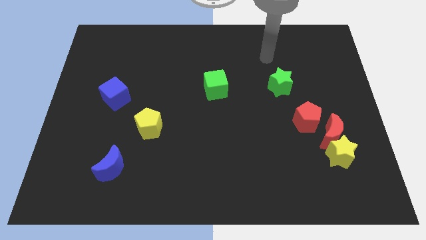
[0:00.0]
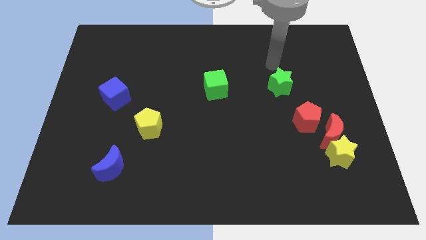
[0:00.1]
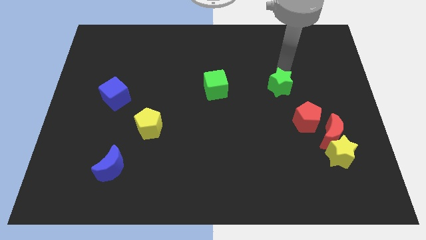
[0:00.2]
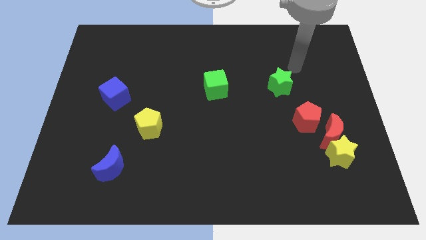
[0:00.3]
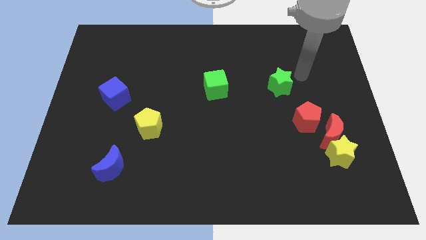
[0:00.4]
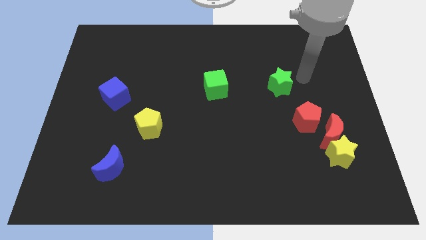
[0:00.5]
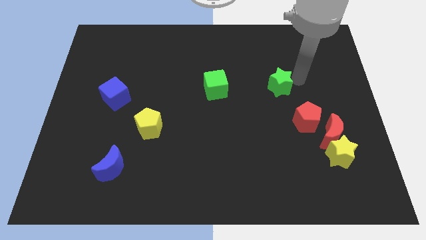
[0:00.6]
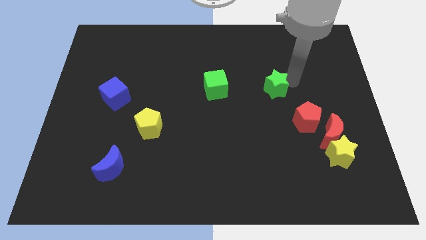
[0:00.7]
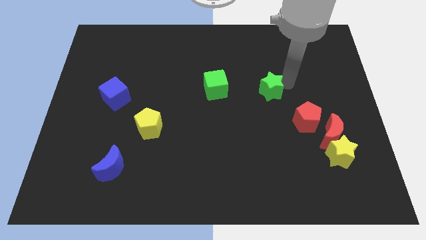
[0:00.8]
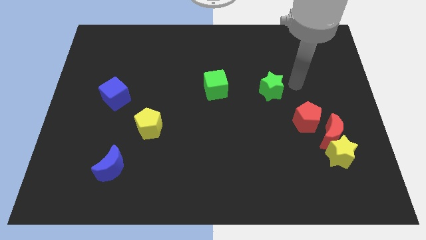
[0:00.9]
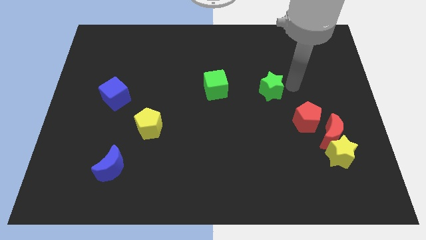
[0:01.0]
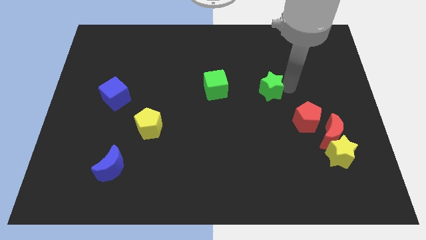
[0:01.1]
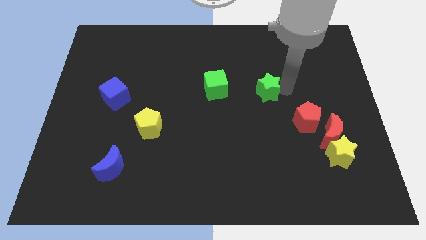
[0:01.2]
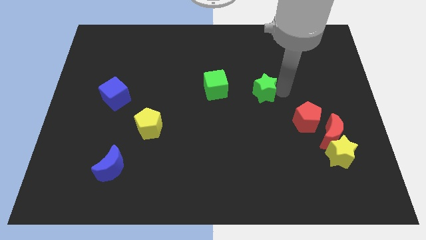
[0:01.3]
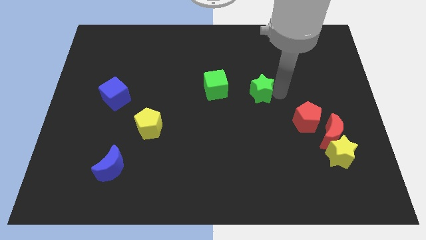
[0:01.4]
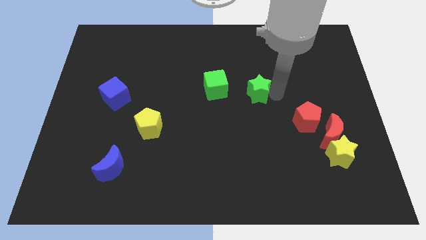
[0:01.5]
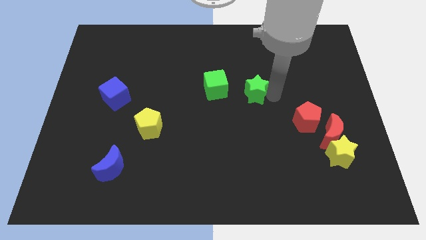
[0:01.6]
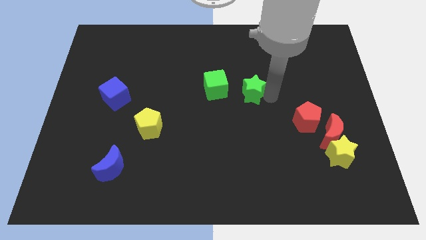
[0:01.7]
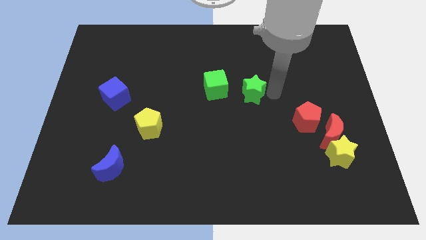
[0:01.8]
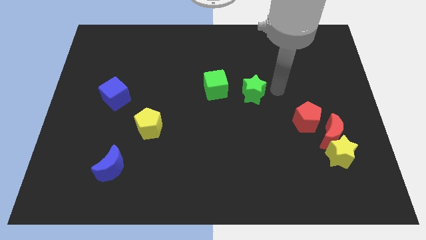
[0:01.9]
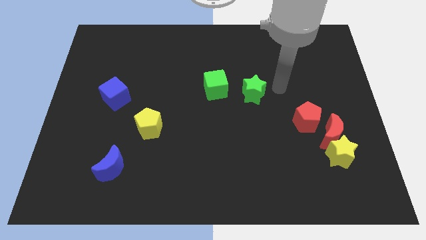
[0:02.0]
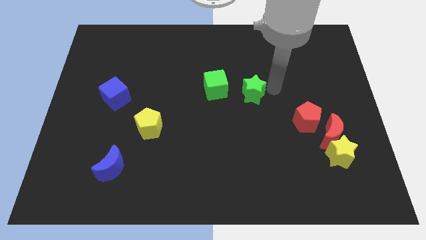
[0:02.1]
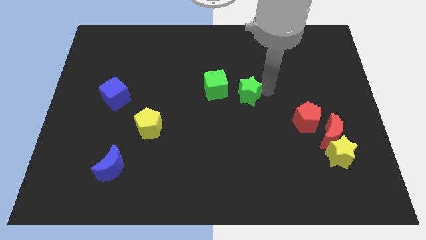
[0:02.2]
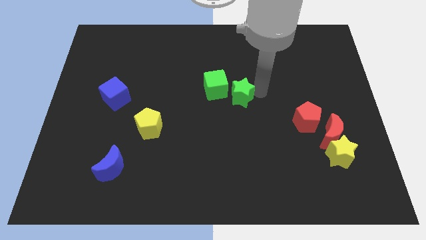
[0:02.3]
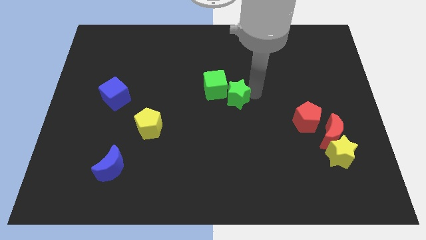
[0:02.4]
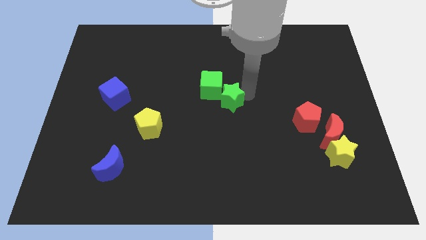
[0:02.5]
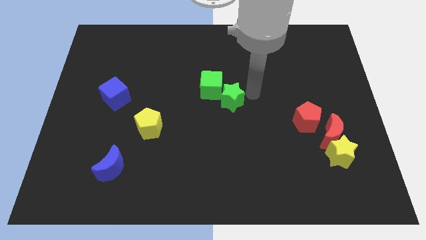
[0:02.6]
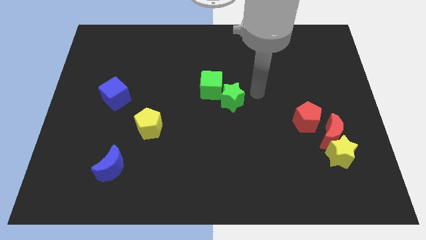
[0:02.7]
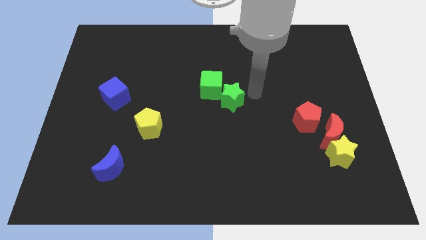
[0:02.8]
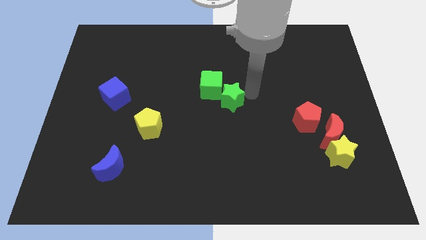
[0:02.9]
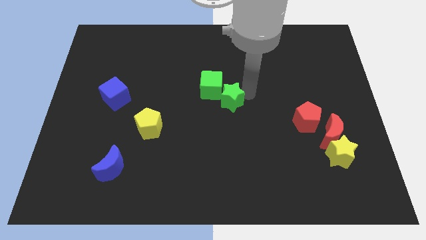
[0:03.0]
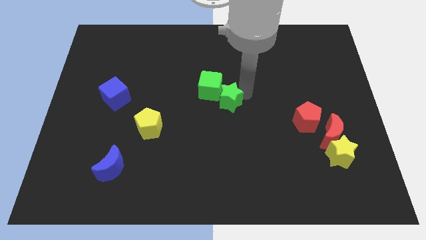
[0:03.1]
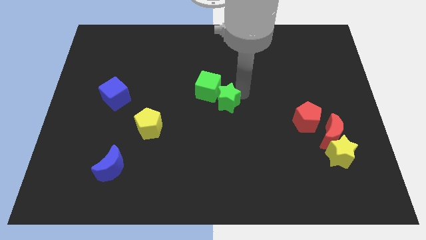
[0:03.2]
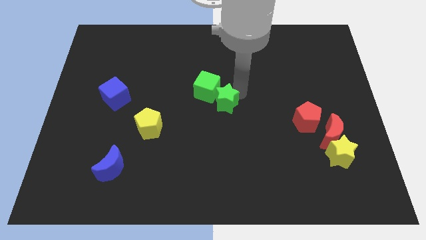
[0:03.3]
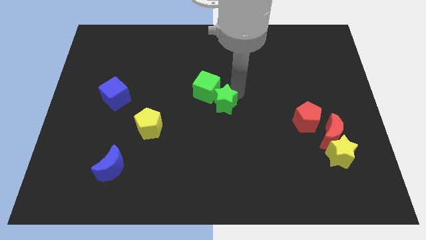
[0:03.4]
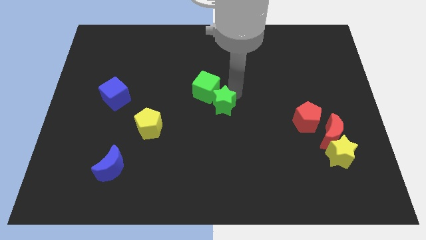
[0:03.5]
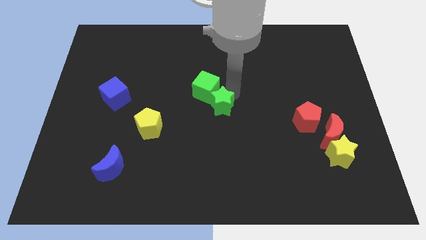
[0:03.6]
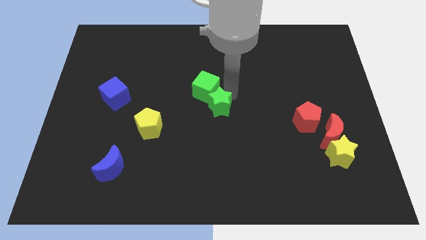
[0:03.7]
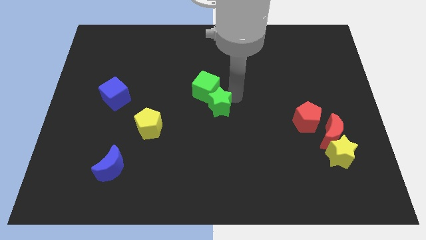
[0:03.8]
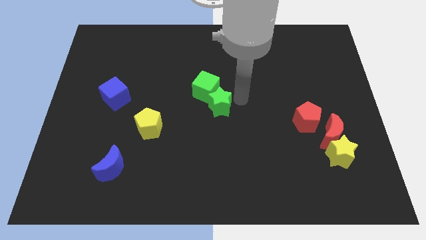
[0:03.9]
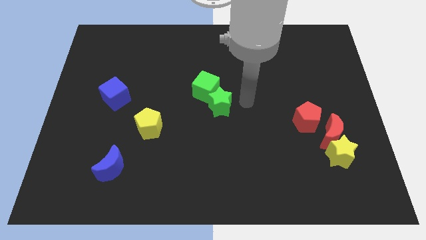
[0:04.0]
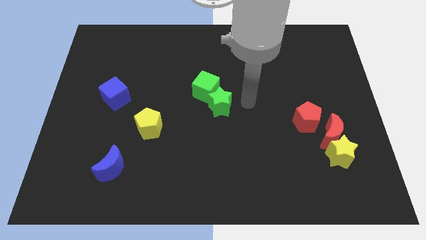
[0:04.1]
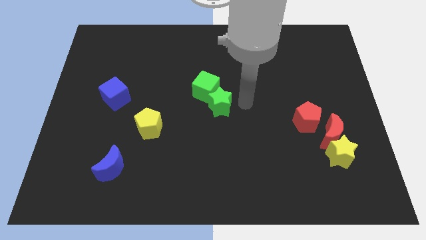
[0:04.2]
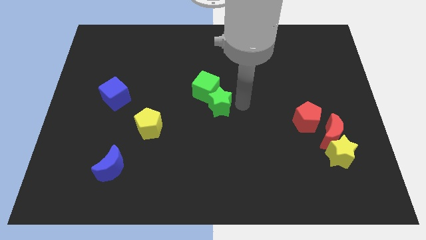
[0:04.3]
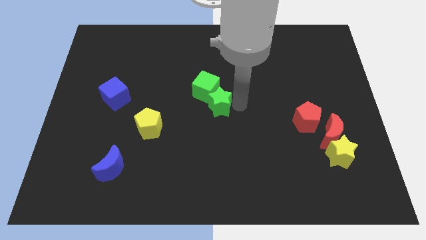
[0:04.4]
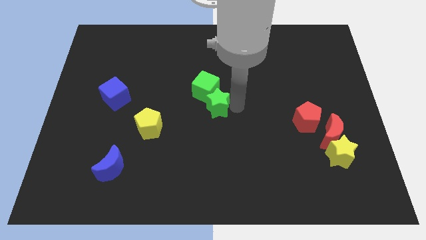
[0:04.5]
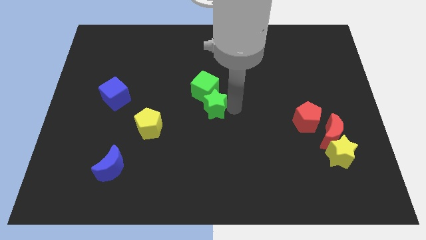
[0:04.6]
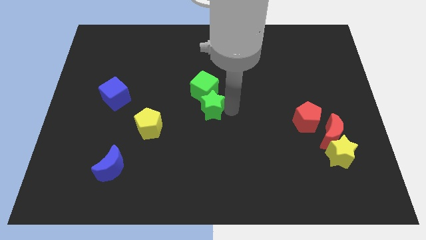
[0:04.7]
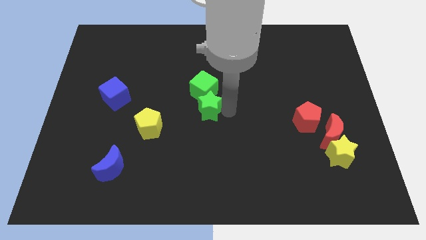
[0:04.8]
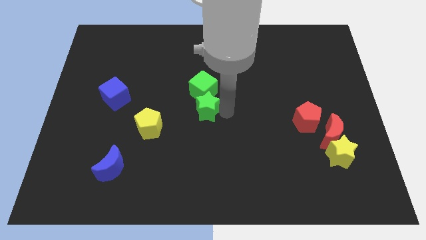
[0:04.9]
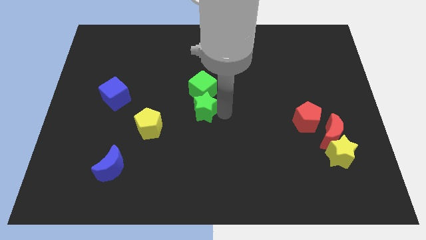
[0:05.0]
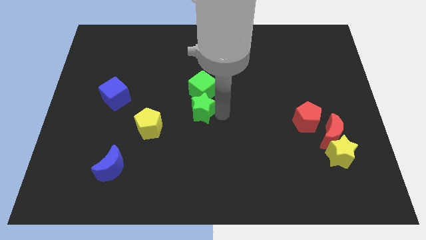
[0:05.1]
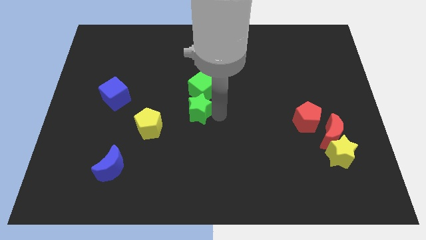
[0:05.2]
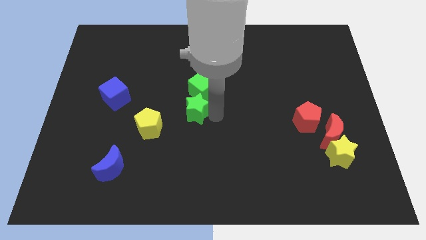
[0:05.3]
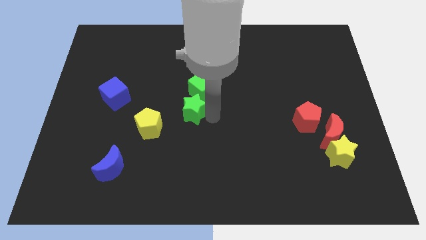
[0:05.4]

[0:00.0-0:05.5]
move the green star diagonally up and to the right of the yellow pentagon

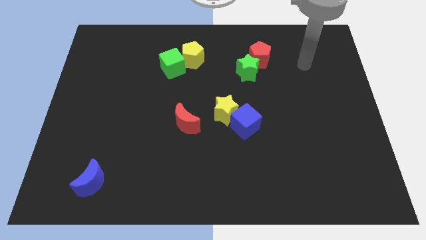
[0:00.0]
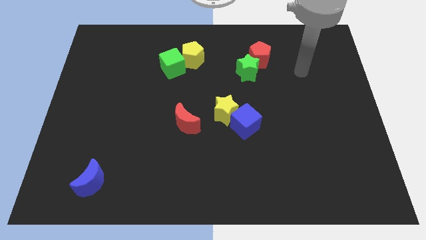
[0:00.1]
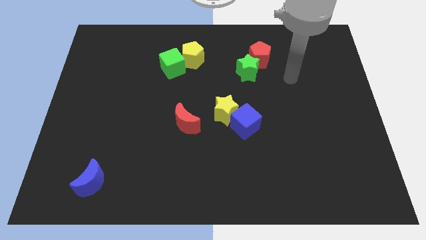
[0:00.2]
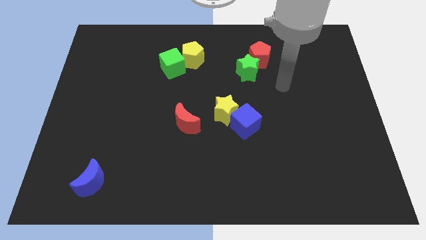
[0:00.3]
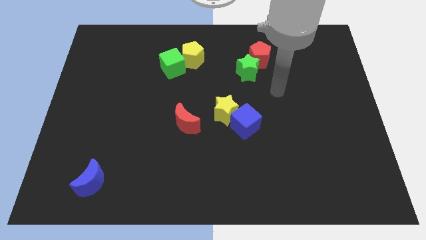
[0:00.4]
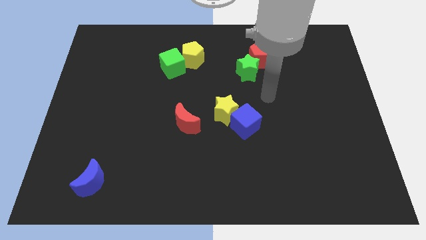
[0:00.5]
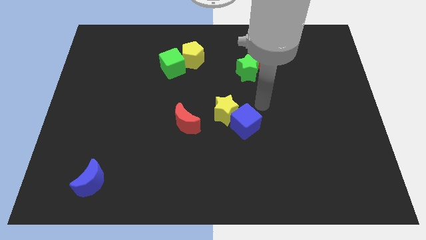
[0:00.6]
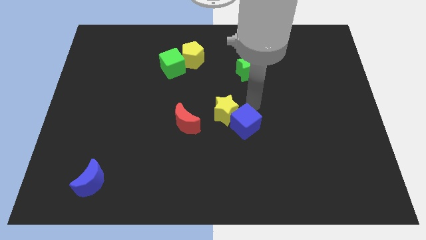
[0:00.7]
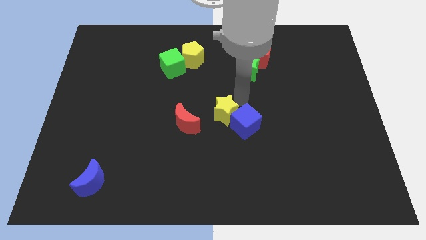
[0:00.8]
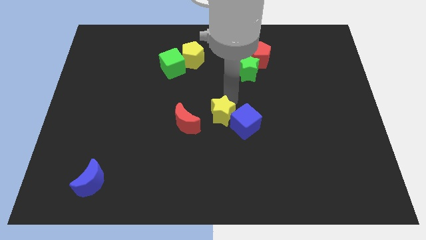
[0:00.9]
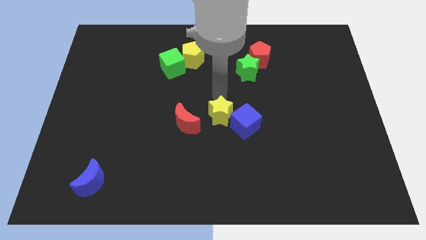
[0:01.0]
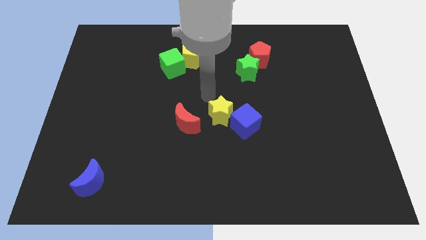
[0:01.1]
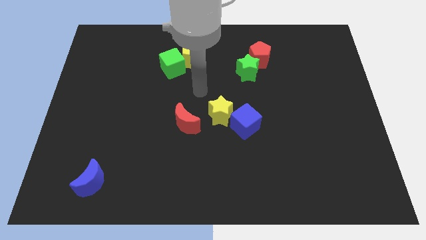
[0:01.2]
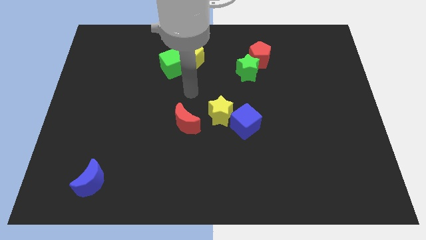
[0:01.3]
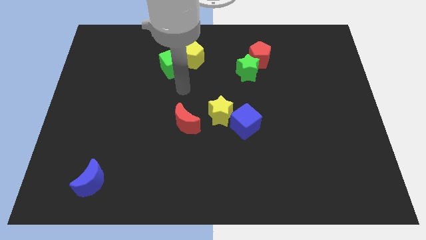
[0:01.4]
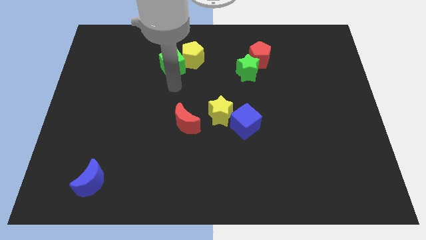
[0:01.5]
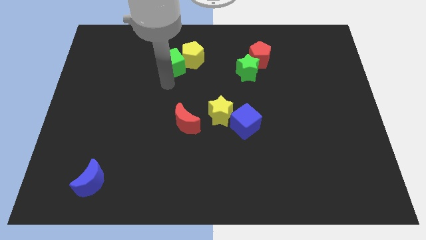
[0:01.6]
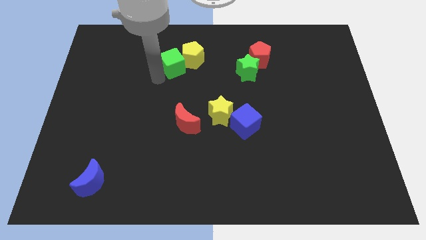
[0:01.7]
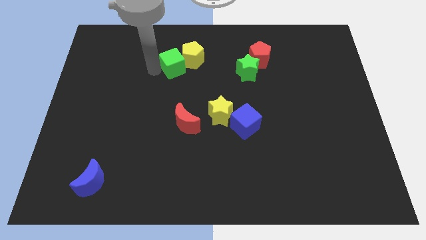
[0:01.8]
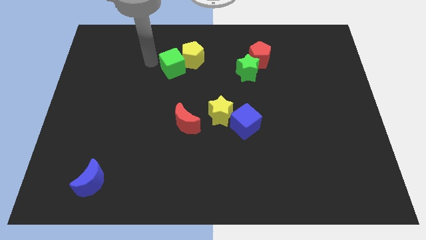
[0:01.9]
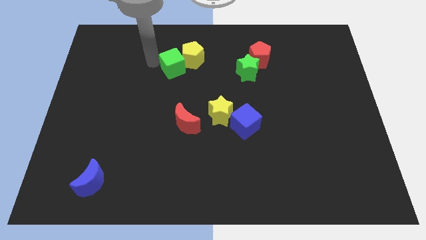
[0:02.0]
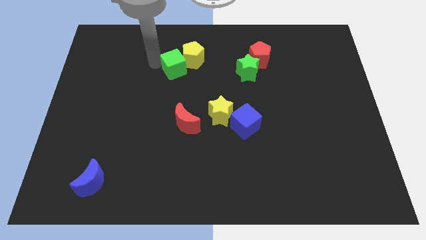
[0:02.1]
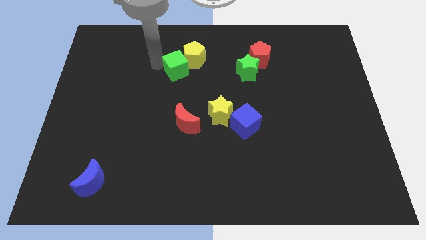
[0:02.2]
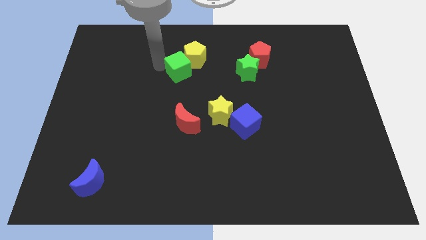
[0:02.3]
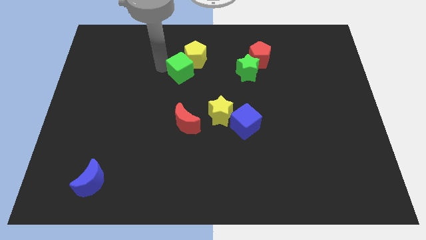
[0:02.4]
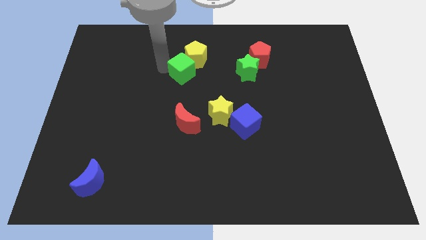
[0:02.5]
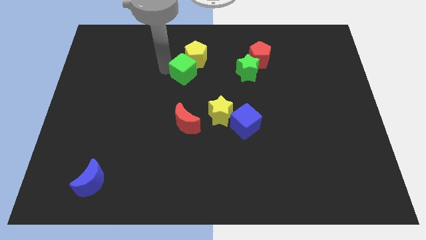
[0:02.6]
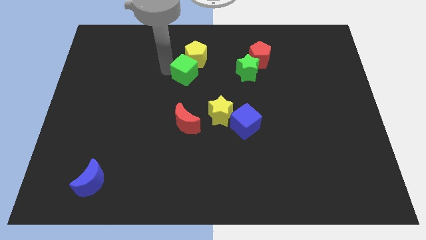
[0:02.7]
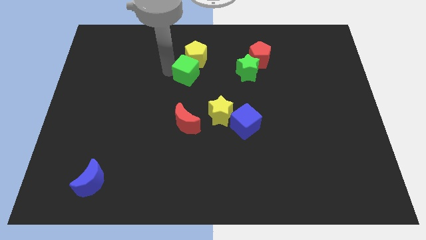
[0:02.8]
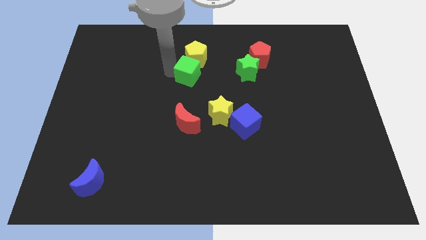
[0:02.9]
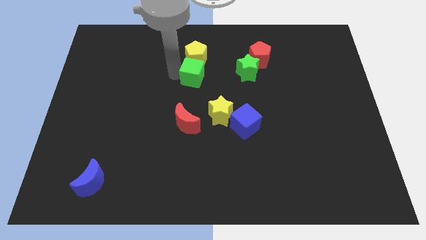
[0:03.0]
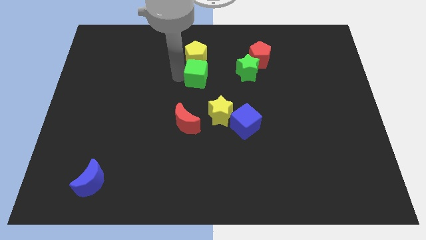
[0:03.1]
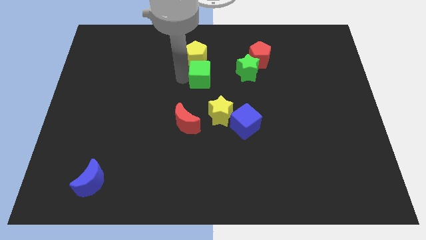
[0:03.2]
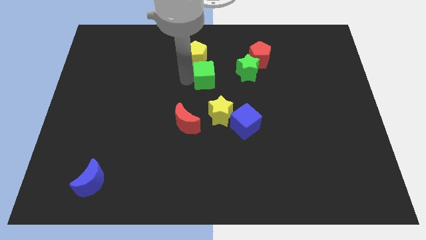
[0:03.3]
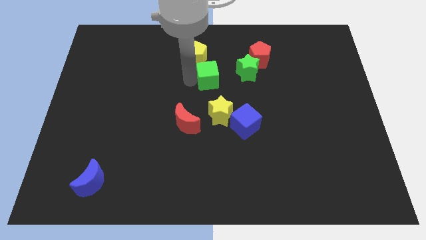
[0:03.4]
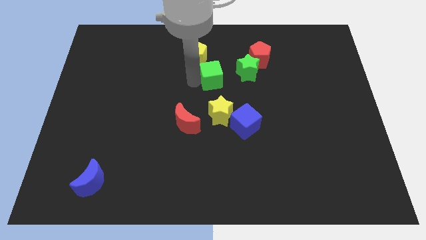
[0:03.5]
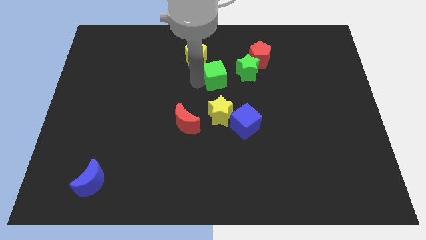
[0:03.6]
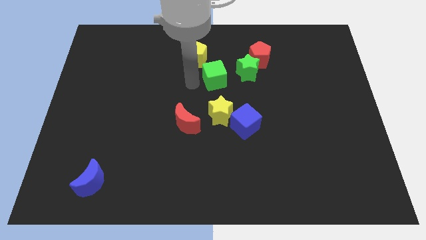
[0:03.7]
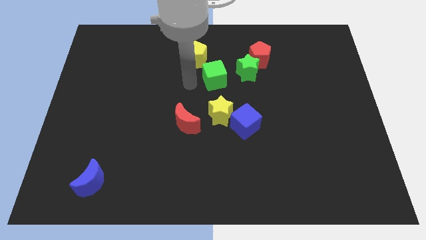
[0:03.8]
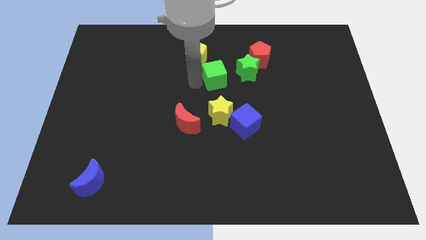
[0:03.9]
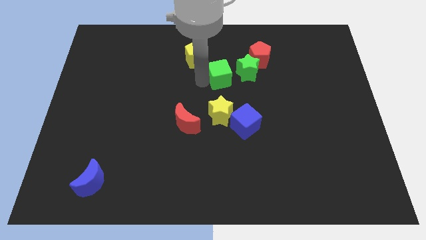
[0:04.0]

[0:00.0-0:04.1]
put the green cube to the bottom left side of the red pentagon
